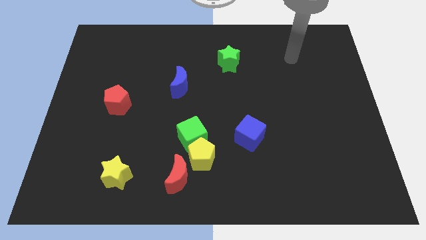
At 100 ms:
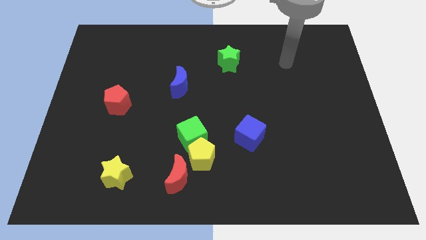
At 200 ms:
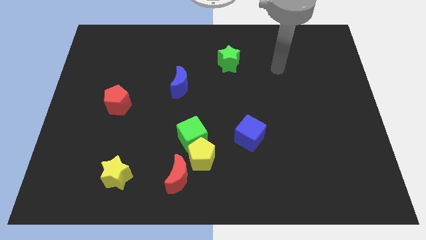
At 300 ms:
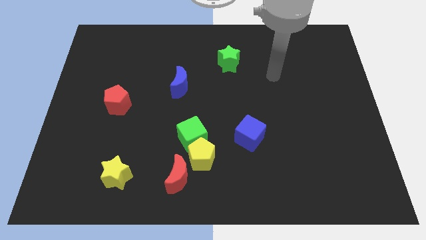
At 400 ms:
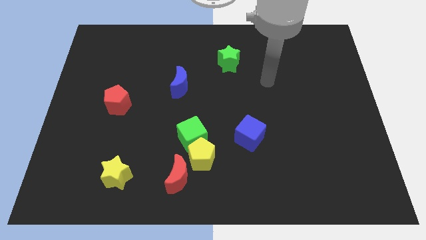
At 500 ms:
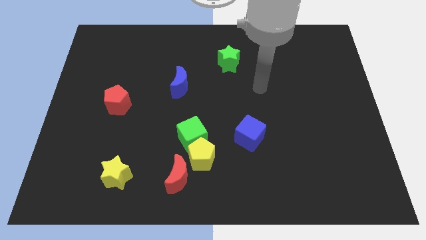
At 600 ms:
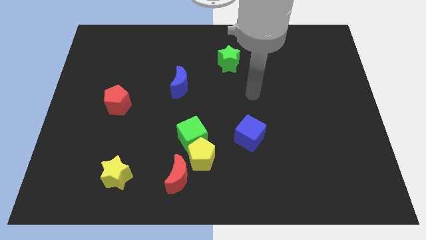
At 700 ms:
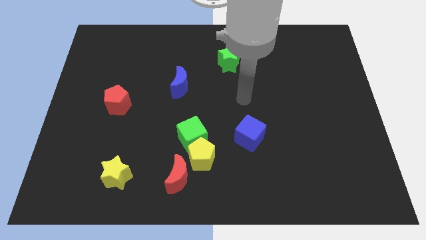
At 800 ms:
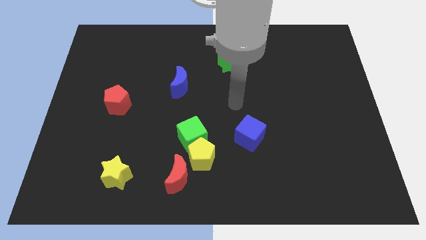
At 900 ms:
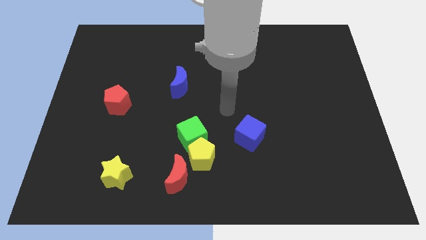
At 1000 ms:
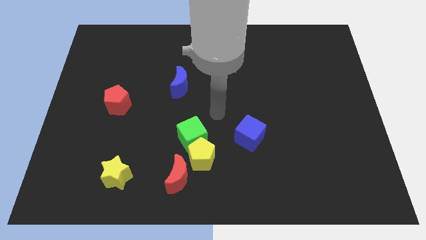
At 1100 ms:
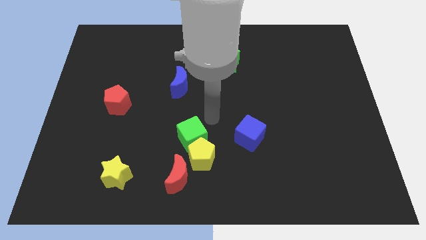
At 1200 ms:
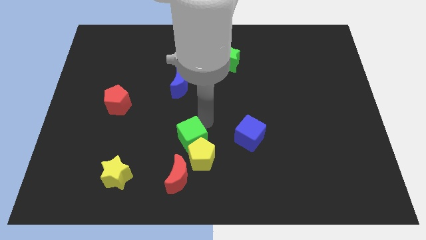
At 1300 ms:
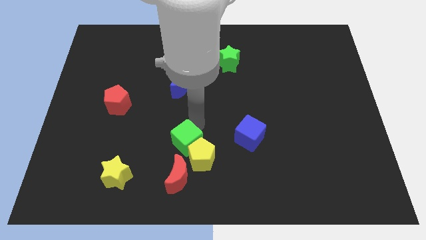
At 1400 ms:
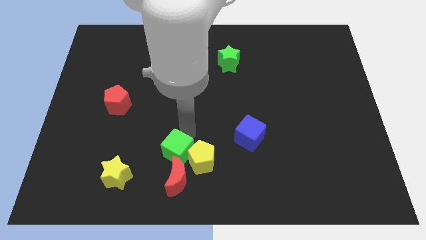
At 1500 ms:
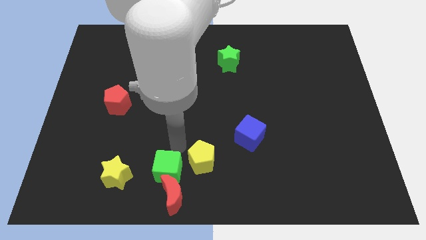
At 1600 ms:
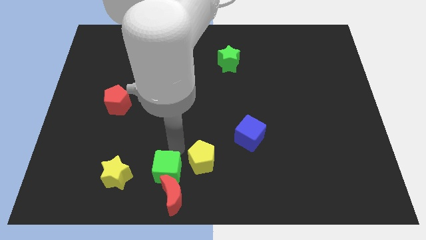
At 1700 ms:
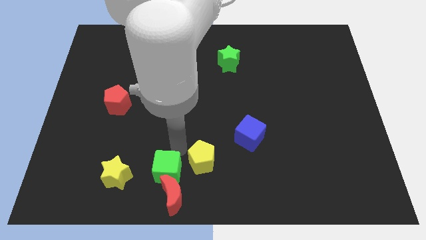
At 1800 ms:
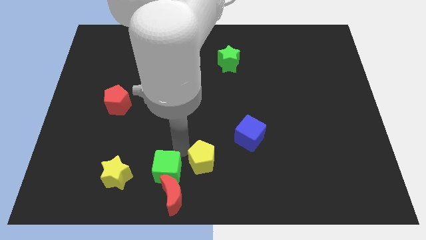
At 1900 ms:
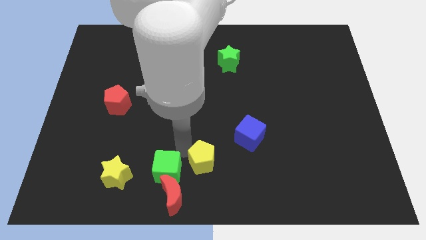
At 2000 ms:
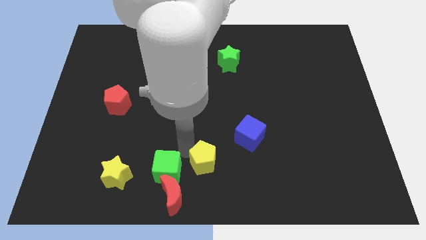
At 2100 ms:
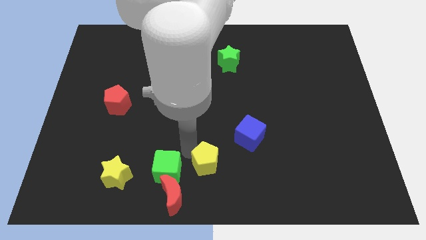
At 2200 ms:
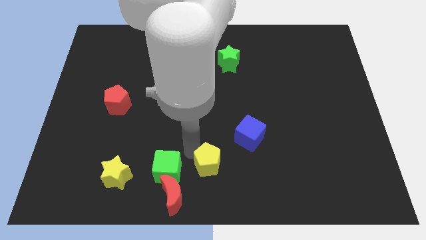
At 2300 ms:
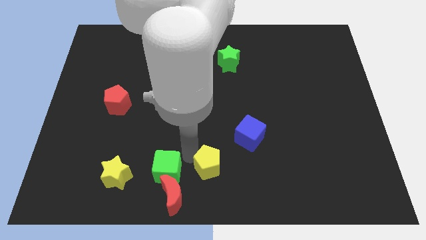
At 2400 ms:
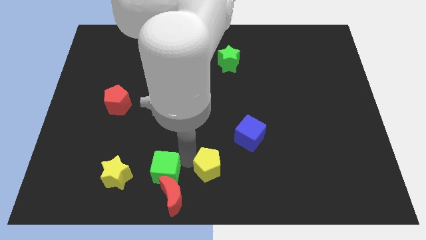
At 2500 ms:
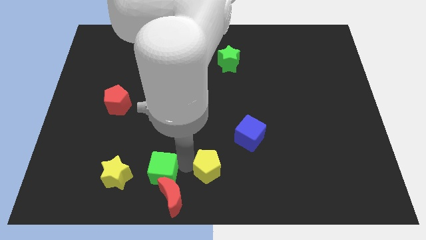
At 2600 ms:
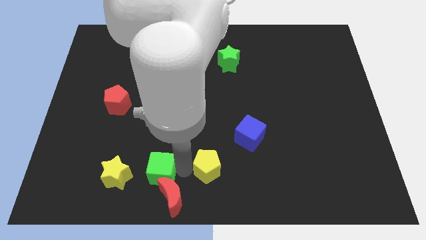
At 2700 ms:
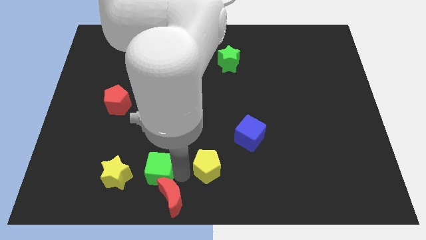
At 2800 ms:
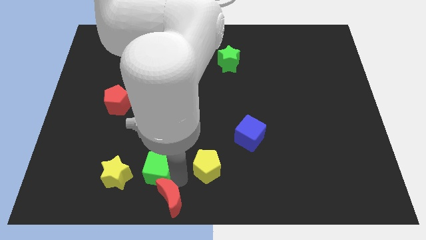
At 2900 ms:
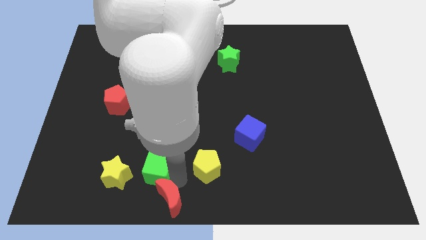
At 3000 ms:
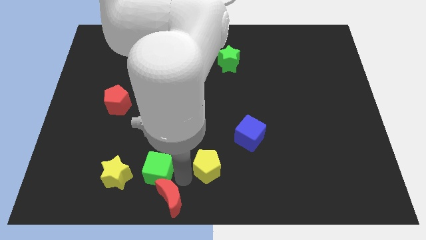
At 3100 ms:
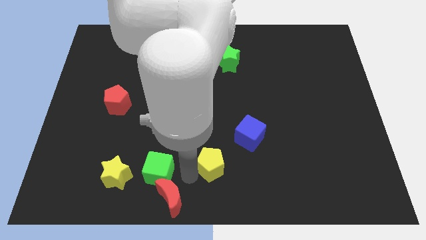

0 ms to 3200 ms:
separate the yellow pentagon from the green cube and red moon

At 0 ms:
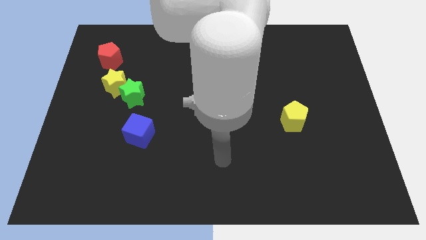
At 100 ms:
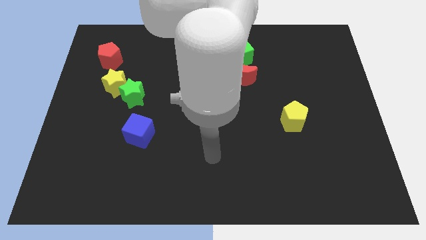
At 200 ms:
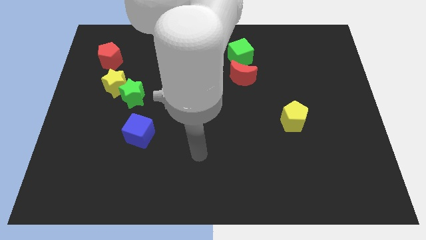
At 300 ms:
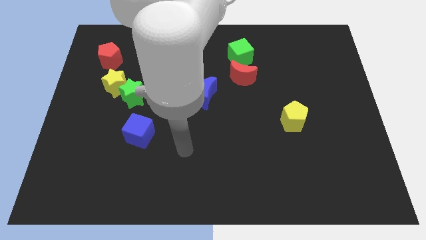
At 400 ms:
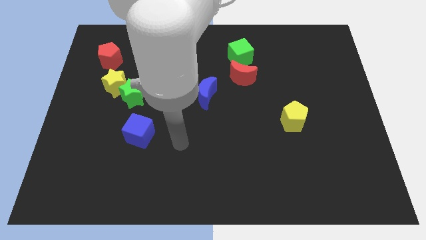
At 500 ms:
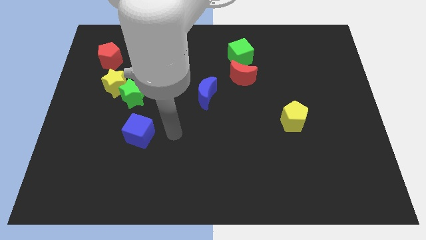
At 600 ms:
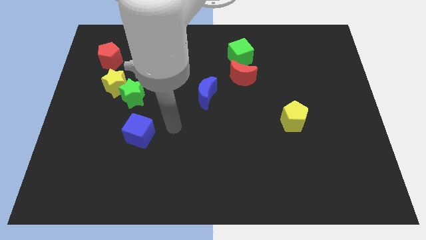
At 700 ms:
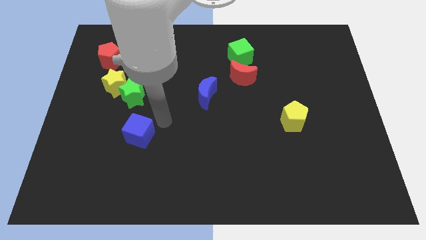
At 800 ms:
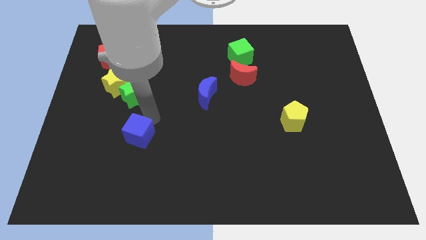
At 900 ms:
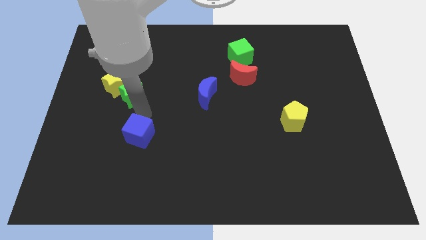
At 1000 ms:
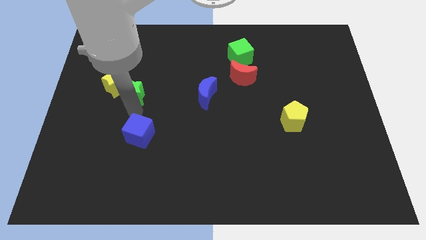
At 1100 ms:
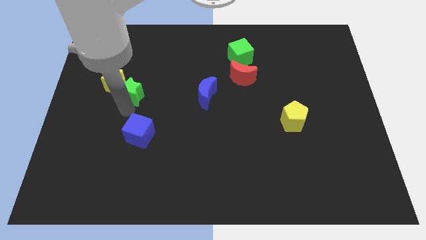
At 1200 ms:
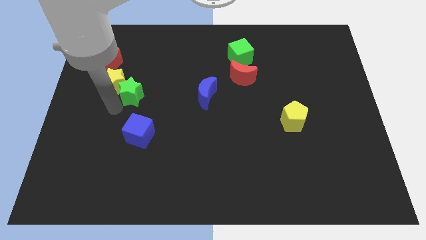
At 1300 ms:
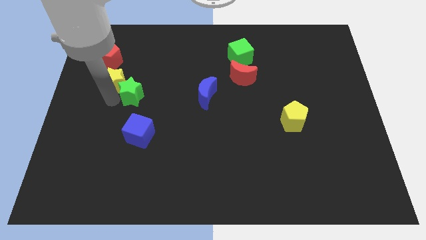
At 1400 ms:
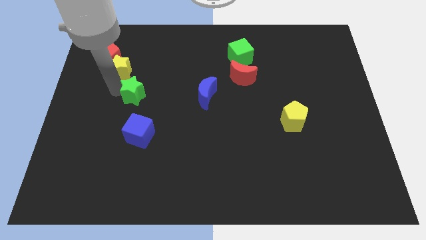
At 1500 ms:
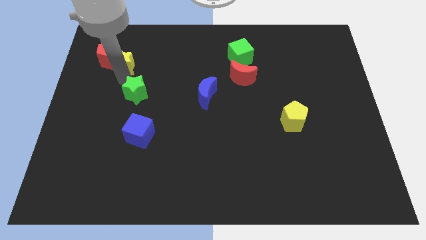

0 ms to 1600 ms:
pull the green star apart from the yellow star

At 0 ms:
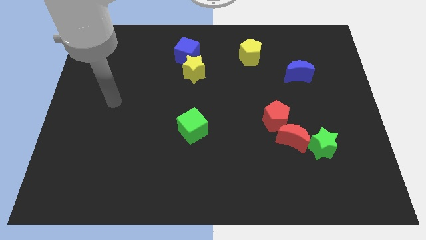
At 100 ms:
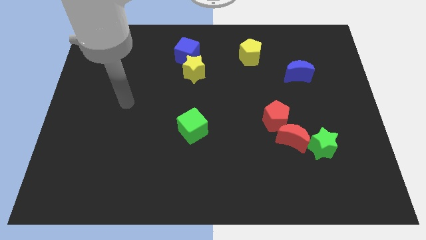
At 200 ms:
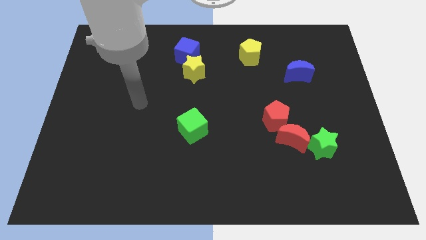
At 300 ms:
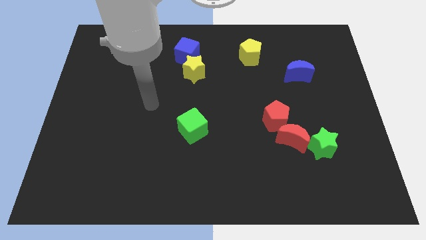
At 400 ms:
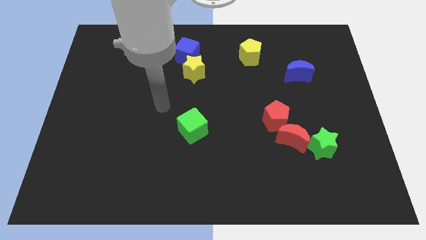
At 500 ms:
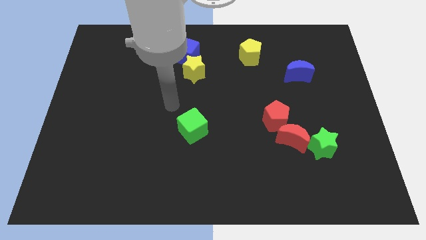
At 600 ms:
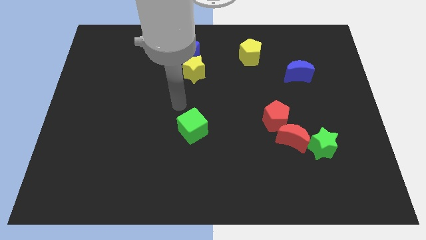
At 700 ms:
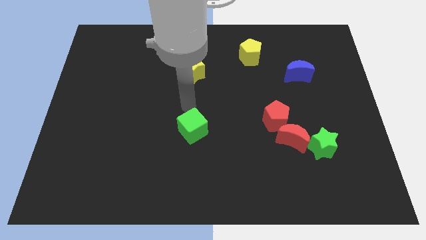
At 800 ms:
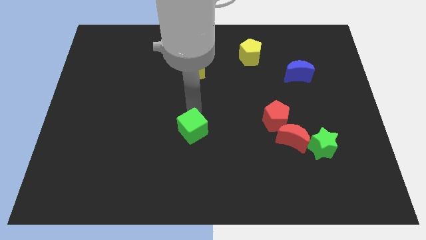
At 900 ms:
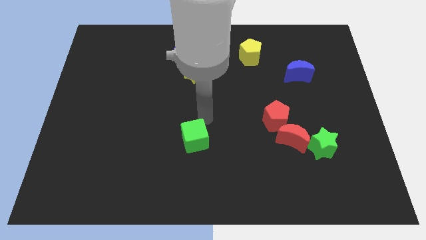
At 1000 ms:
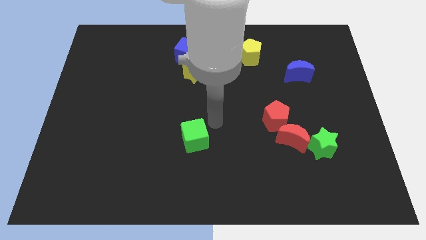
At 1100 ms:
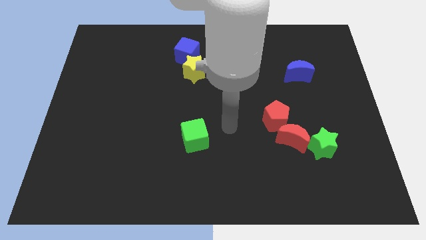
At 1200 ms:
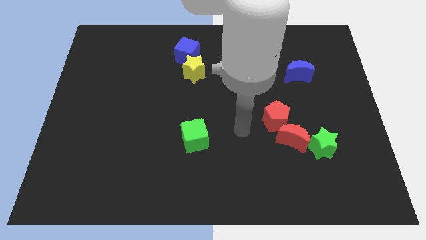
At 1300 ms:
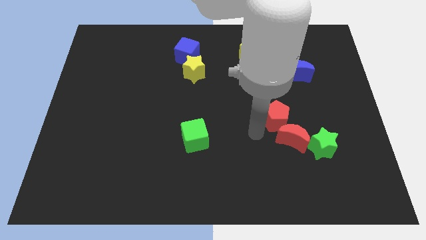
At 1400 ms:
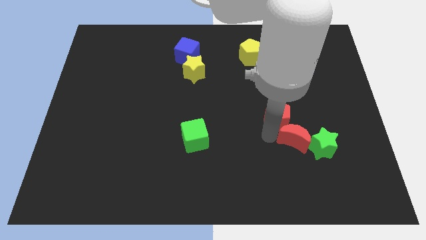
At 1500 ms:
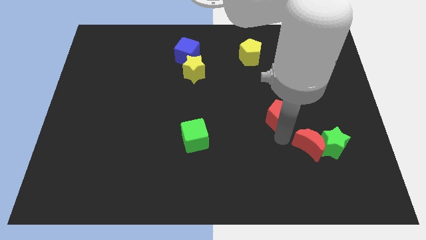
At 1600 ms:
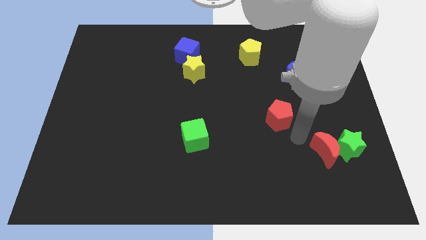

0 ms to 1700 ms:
move the red pentagon away from the red moon

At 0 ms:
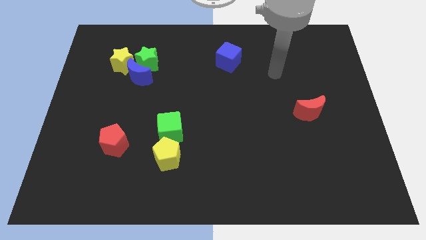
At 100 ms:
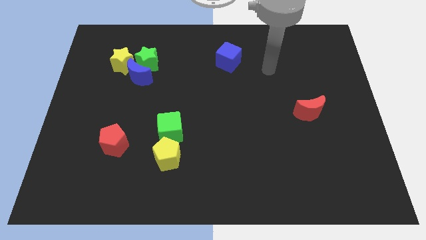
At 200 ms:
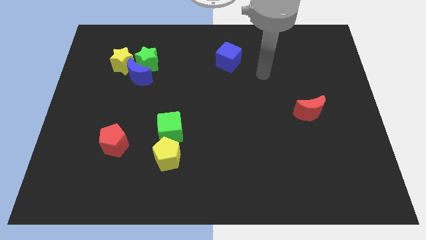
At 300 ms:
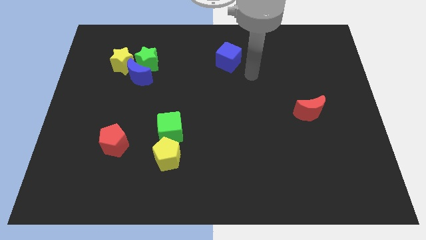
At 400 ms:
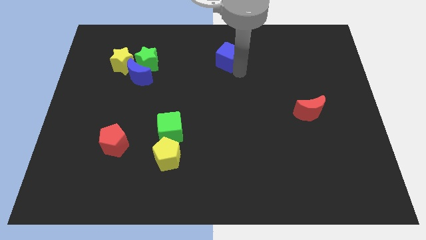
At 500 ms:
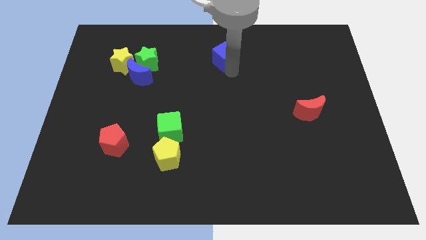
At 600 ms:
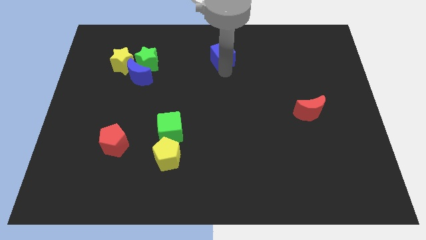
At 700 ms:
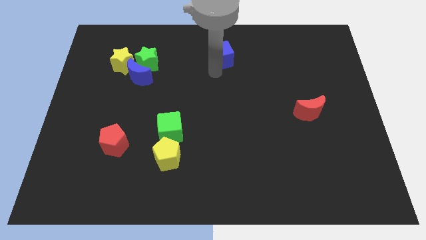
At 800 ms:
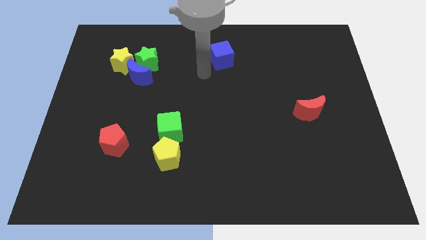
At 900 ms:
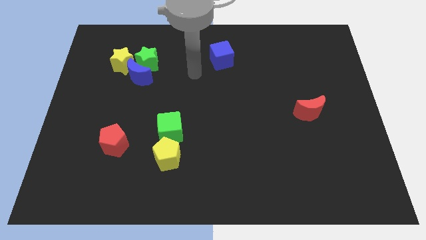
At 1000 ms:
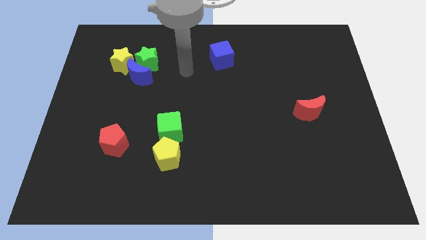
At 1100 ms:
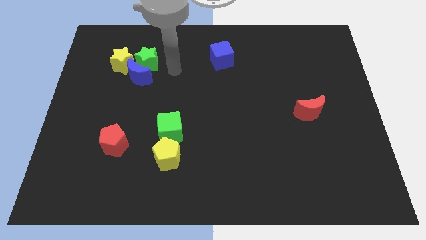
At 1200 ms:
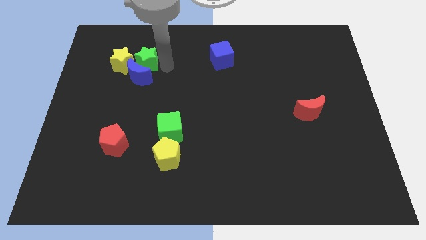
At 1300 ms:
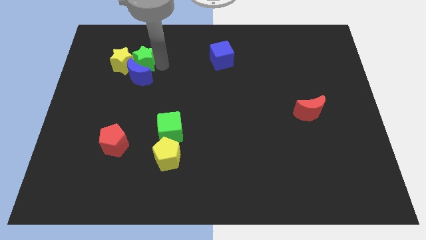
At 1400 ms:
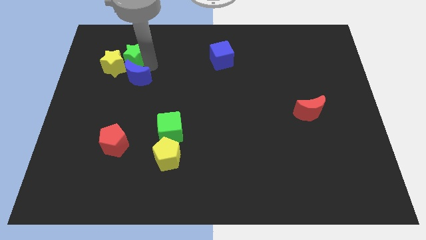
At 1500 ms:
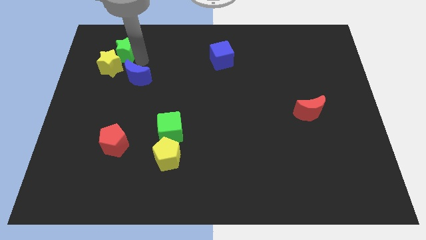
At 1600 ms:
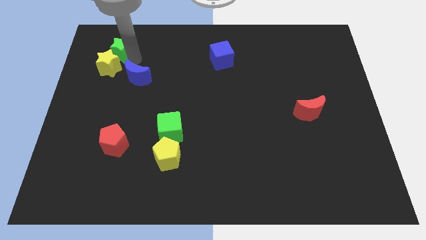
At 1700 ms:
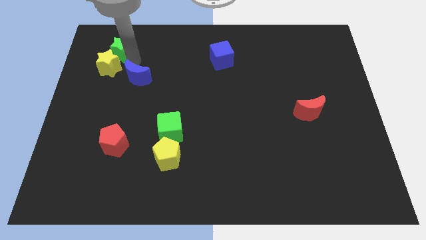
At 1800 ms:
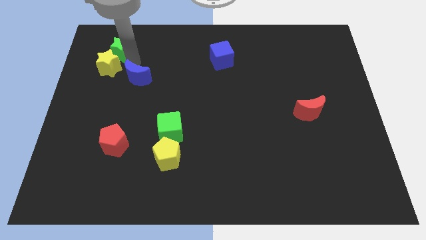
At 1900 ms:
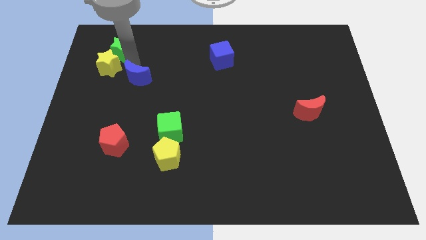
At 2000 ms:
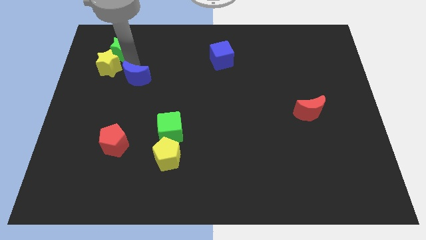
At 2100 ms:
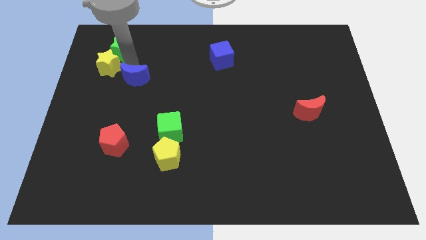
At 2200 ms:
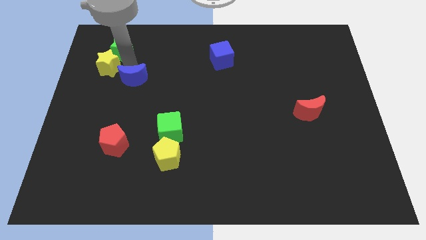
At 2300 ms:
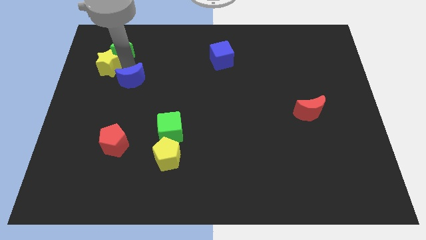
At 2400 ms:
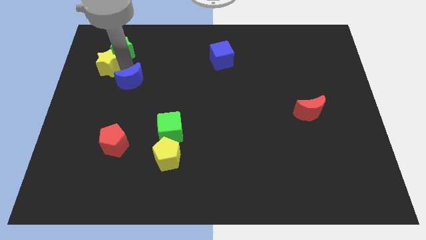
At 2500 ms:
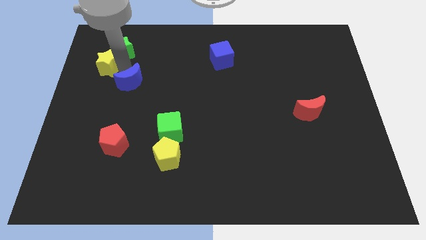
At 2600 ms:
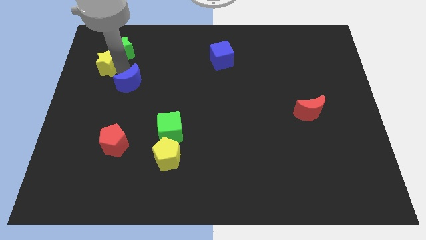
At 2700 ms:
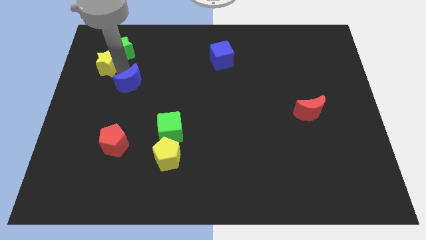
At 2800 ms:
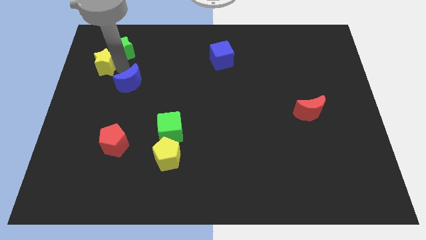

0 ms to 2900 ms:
move the blue moon away from the green star and yellow star
